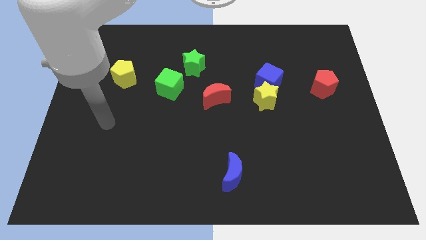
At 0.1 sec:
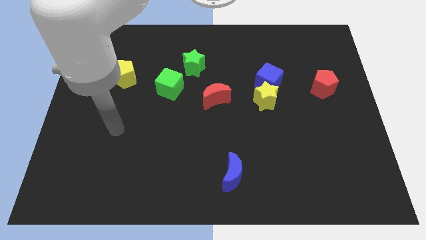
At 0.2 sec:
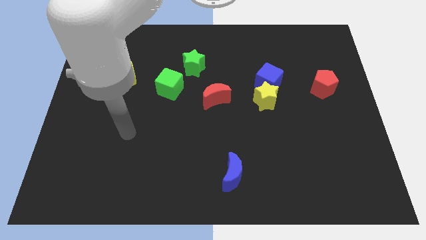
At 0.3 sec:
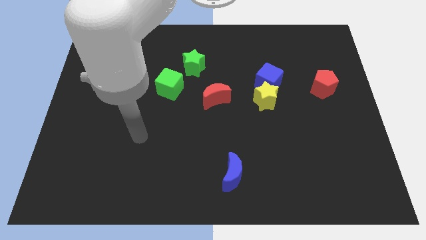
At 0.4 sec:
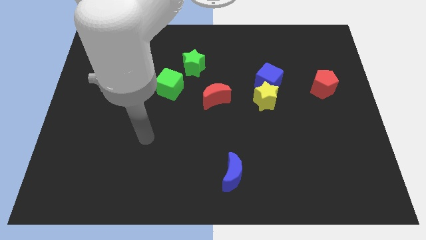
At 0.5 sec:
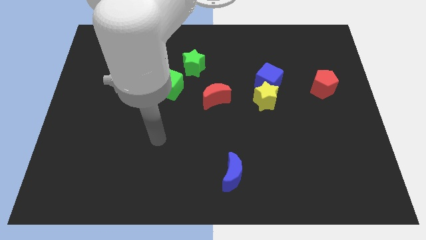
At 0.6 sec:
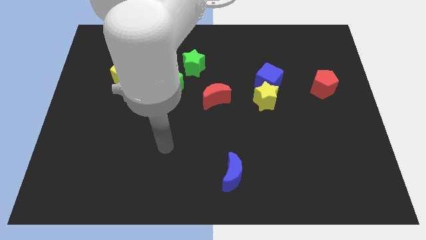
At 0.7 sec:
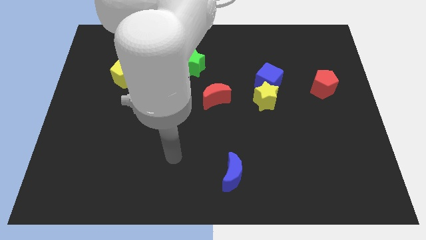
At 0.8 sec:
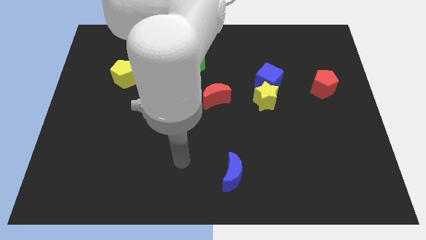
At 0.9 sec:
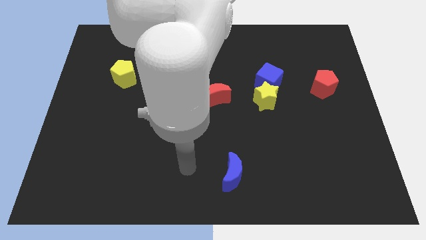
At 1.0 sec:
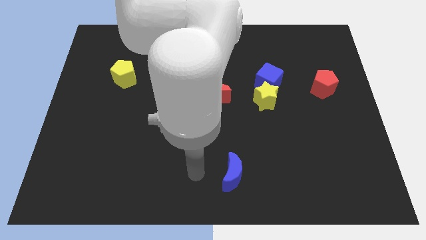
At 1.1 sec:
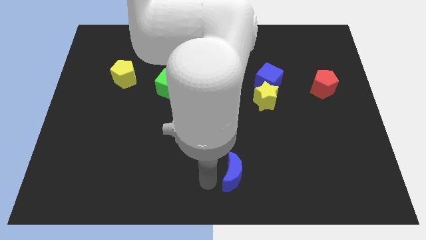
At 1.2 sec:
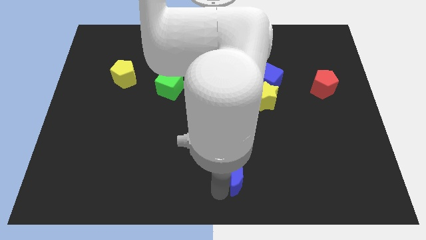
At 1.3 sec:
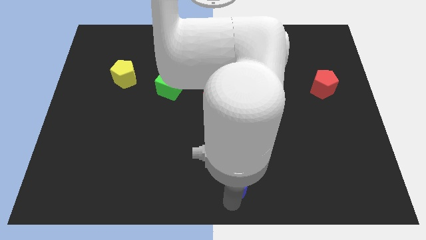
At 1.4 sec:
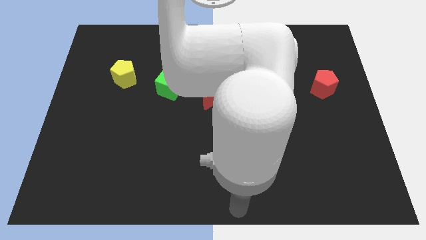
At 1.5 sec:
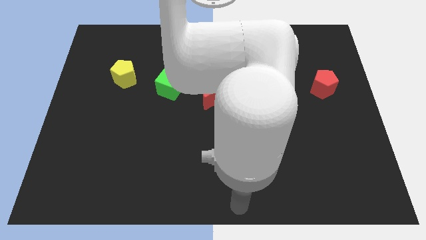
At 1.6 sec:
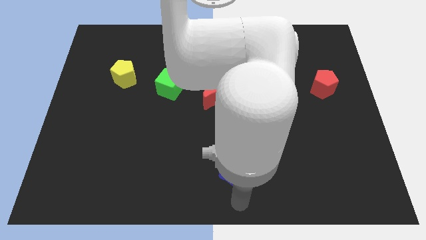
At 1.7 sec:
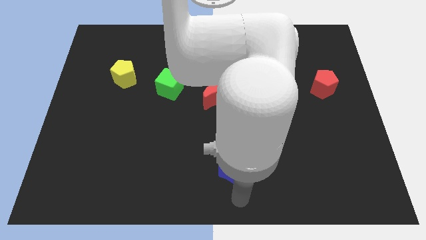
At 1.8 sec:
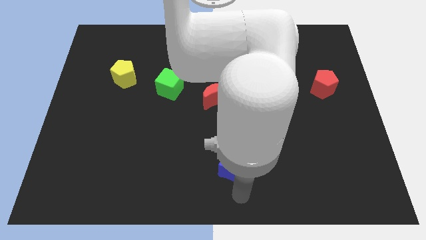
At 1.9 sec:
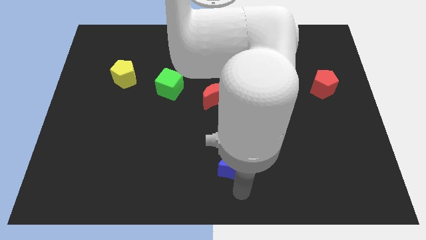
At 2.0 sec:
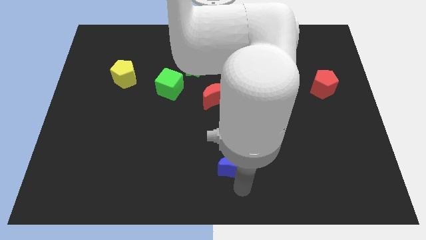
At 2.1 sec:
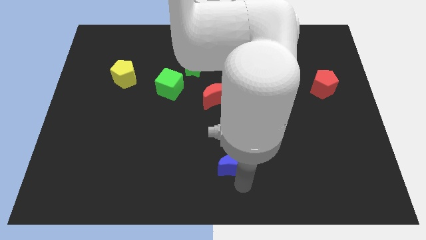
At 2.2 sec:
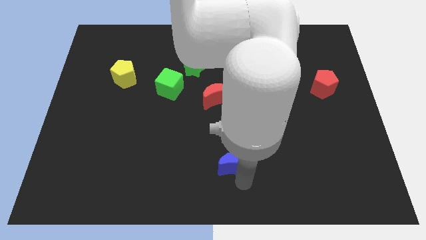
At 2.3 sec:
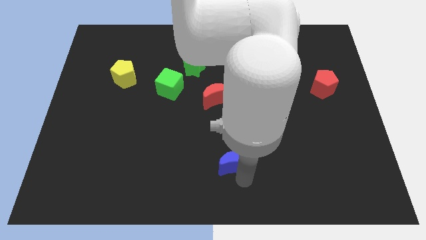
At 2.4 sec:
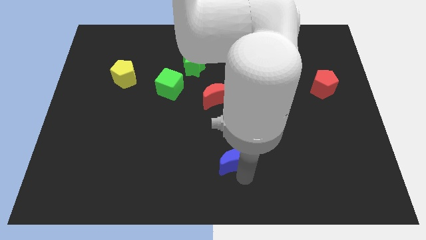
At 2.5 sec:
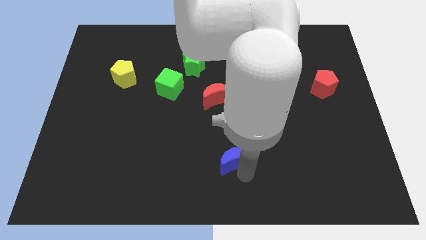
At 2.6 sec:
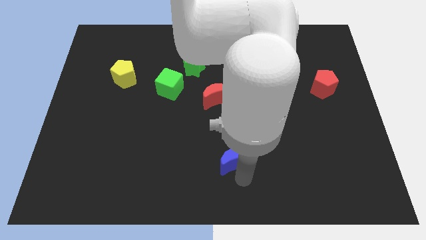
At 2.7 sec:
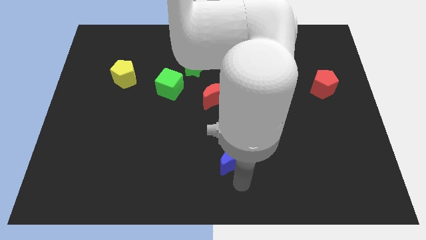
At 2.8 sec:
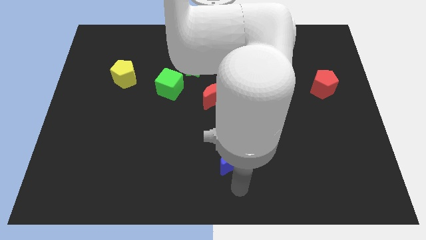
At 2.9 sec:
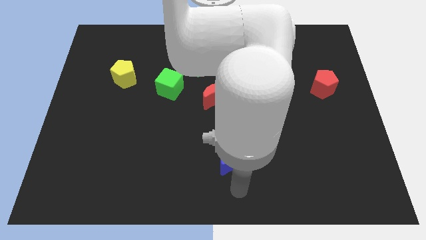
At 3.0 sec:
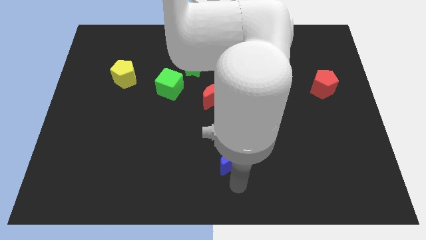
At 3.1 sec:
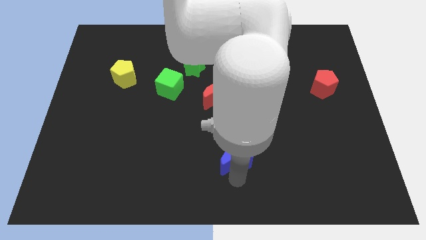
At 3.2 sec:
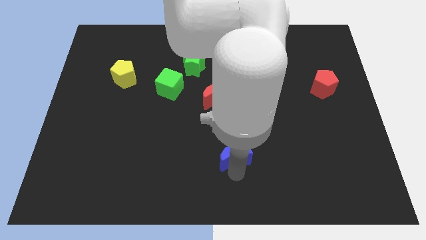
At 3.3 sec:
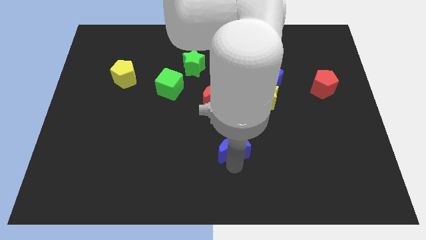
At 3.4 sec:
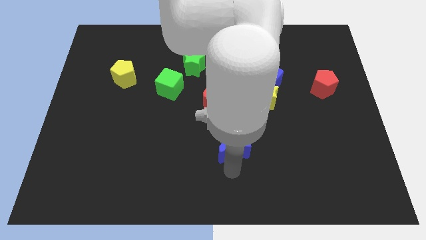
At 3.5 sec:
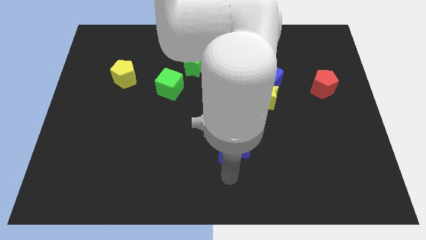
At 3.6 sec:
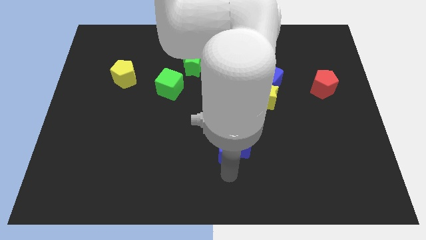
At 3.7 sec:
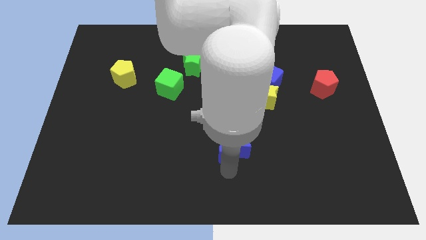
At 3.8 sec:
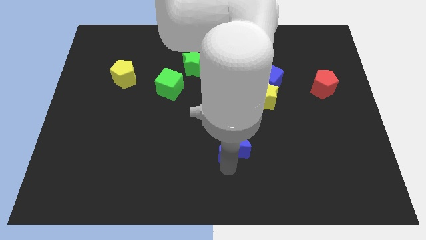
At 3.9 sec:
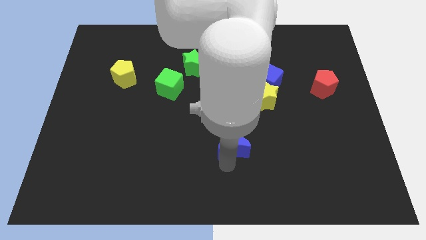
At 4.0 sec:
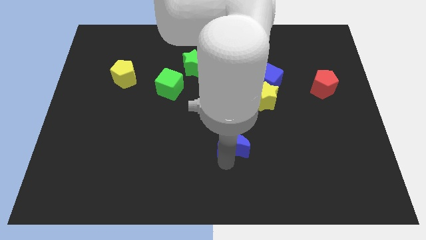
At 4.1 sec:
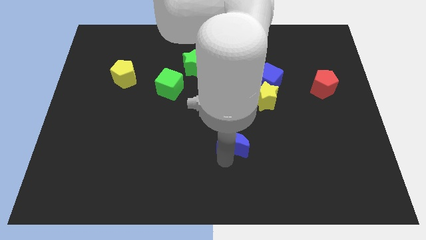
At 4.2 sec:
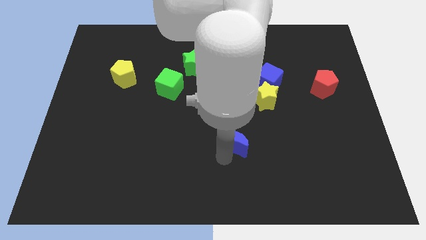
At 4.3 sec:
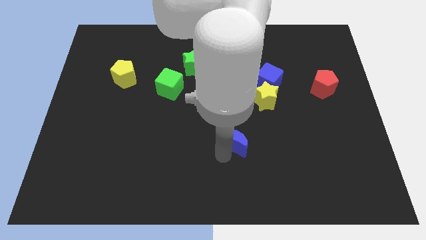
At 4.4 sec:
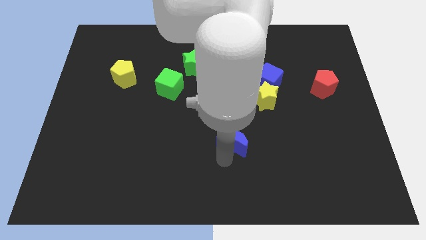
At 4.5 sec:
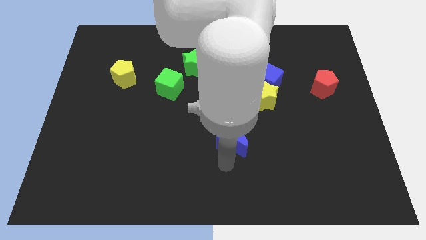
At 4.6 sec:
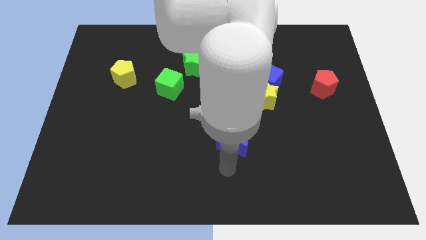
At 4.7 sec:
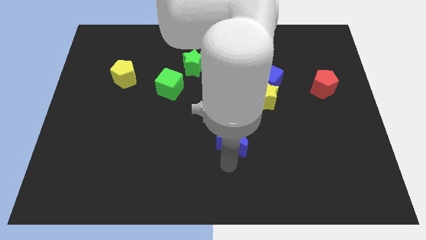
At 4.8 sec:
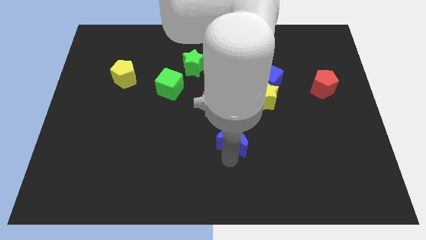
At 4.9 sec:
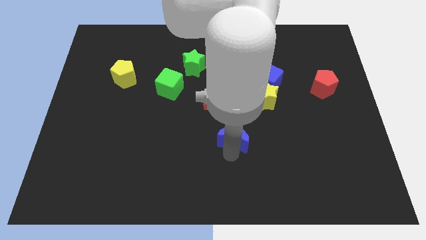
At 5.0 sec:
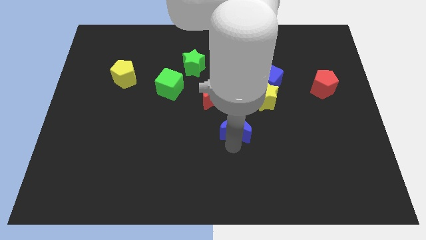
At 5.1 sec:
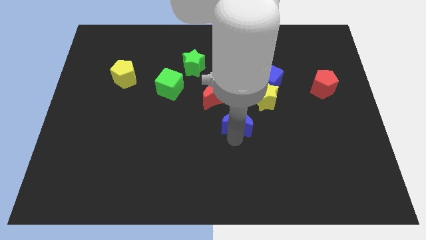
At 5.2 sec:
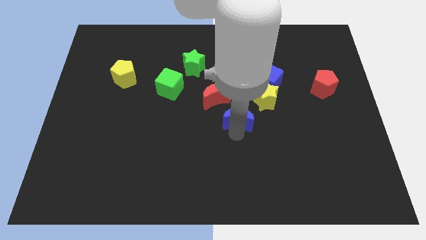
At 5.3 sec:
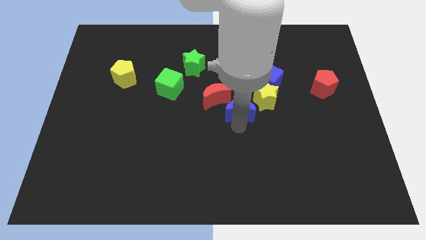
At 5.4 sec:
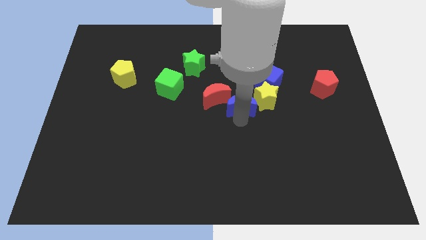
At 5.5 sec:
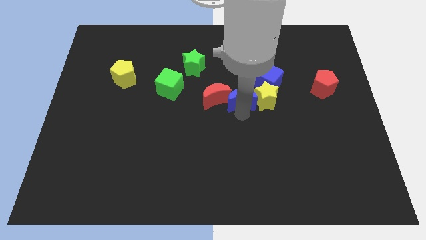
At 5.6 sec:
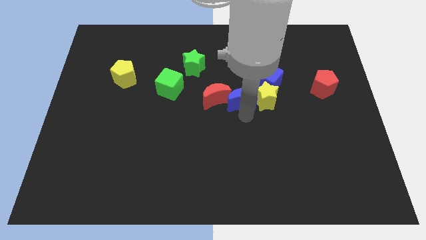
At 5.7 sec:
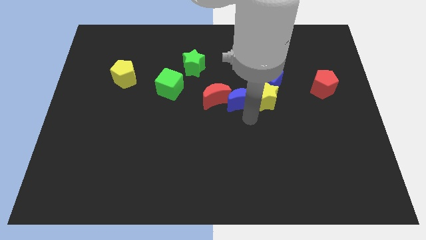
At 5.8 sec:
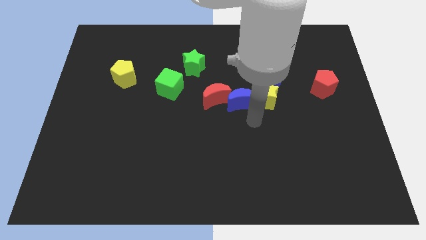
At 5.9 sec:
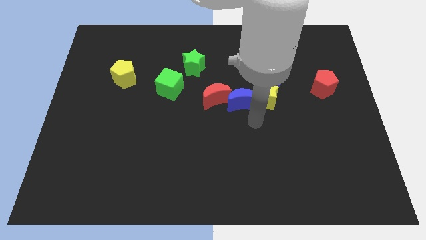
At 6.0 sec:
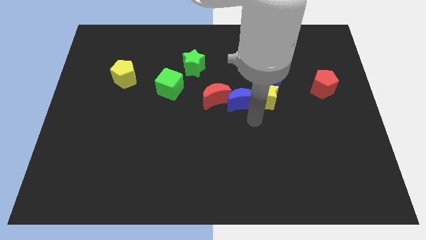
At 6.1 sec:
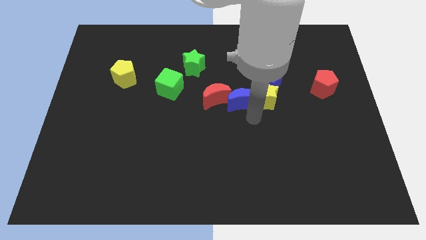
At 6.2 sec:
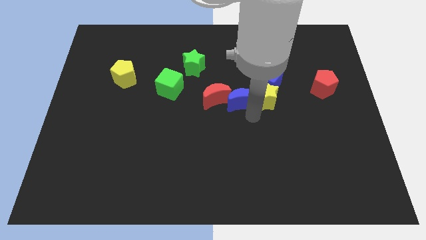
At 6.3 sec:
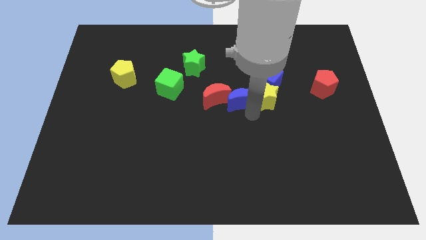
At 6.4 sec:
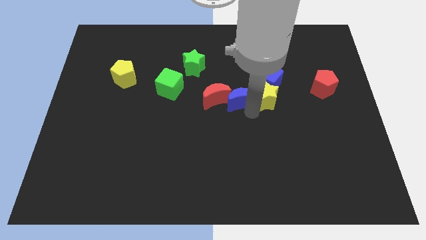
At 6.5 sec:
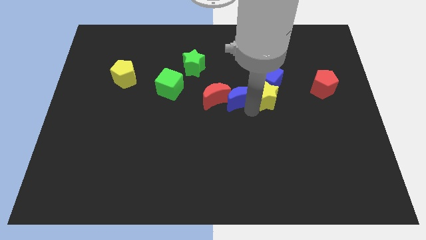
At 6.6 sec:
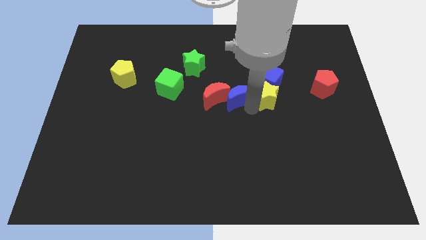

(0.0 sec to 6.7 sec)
move the blue moon up

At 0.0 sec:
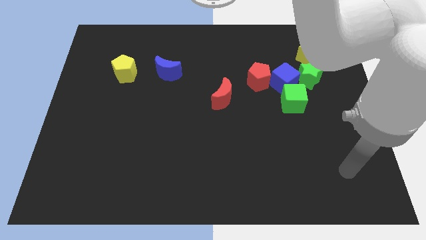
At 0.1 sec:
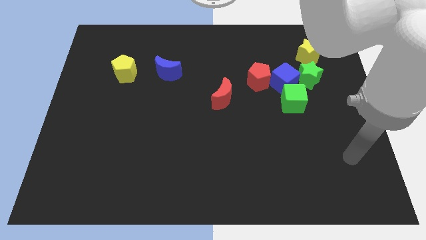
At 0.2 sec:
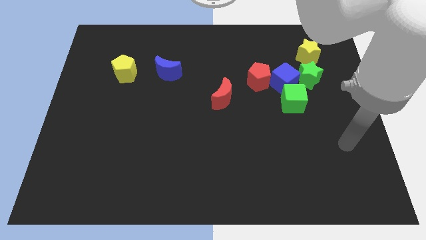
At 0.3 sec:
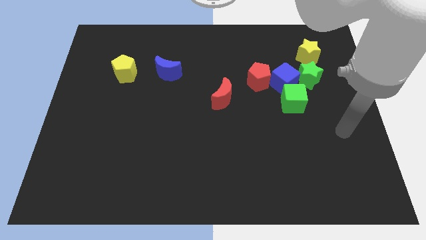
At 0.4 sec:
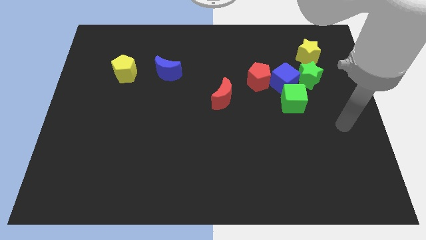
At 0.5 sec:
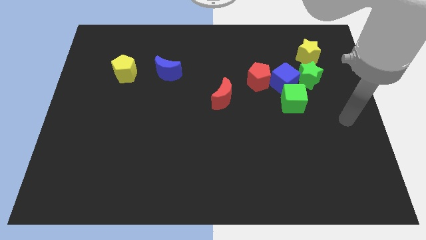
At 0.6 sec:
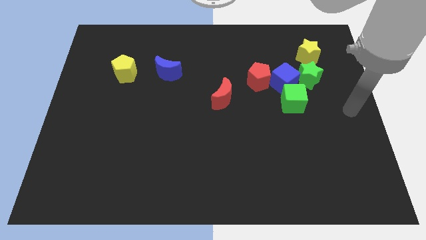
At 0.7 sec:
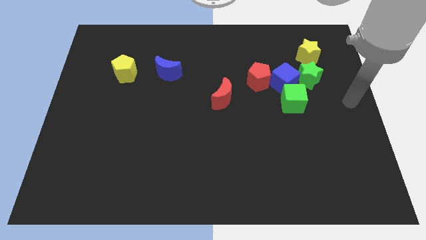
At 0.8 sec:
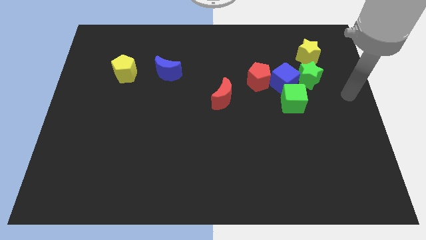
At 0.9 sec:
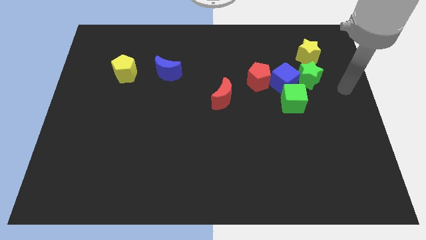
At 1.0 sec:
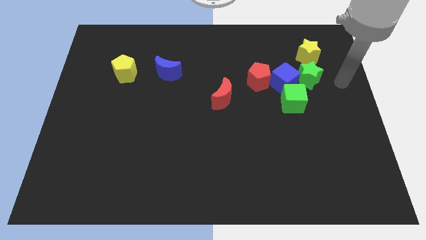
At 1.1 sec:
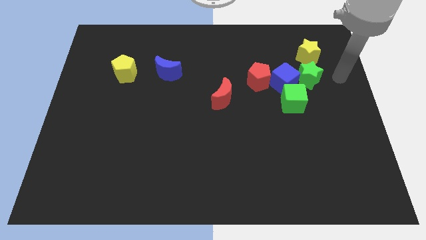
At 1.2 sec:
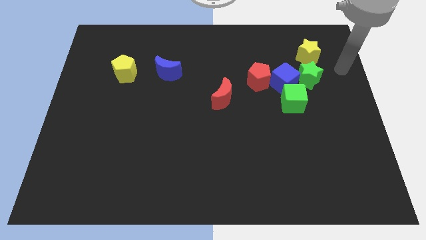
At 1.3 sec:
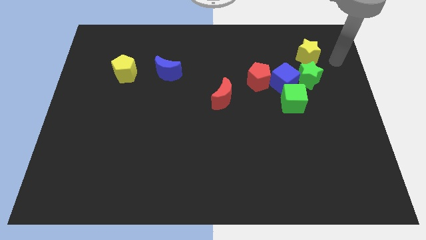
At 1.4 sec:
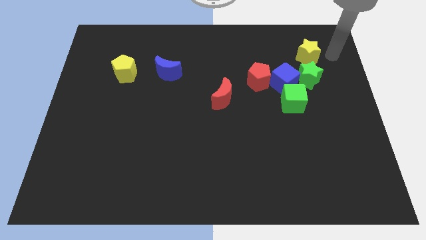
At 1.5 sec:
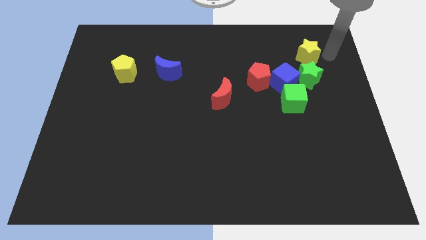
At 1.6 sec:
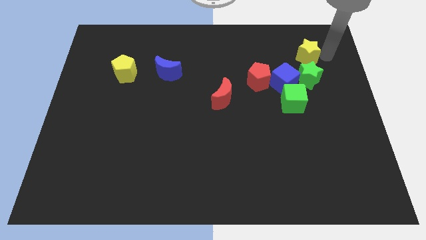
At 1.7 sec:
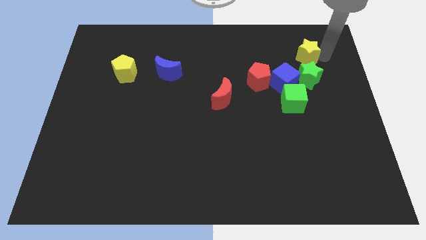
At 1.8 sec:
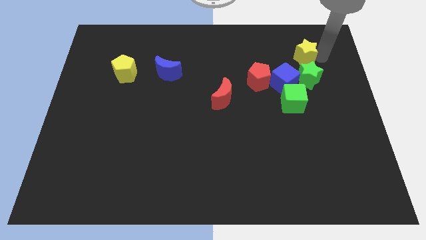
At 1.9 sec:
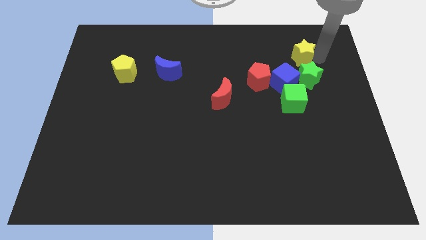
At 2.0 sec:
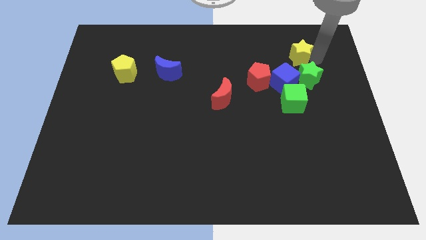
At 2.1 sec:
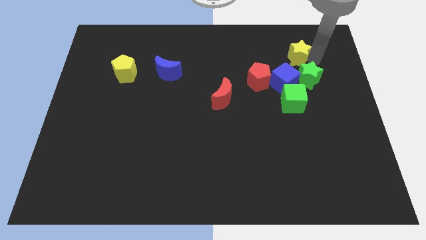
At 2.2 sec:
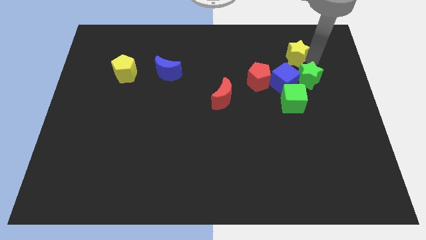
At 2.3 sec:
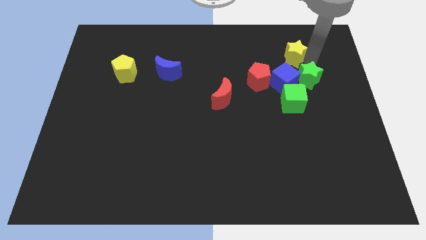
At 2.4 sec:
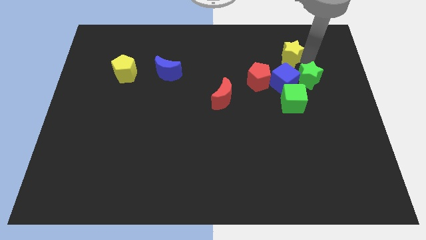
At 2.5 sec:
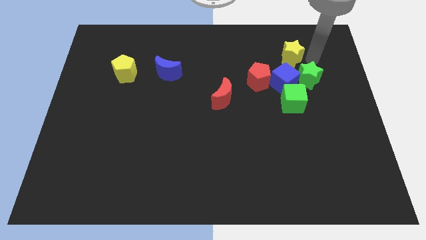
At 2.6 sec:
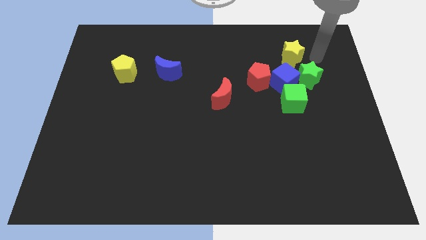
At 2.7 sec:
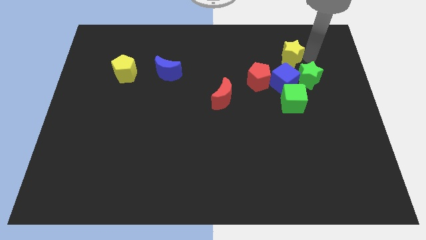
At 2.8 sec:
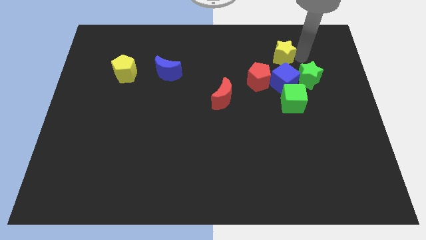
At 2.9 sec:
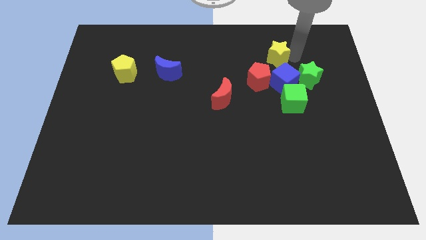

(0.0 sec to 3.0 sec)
move the yellow star left a little
